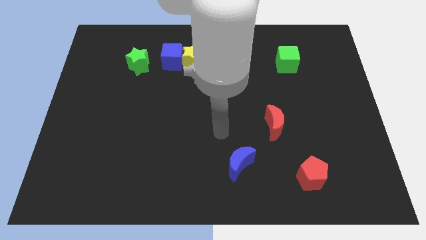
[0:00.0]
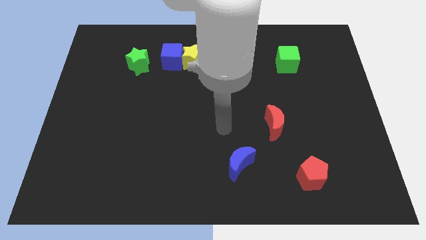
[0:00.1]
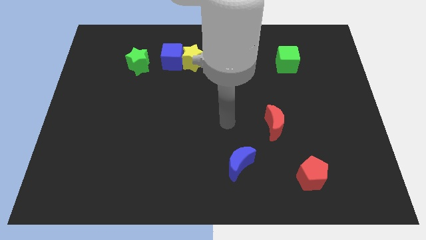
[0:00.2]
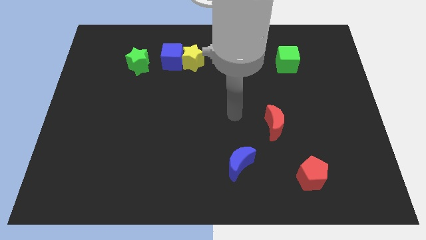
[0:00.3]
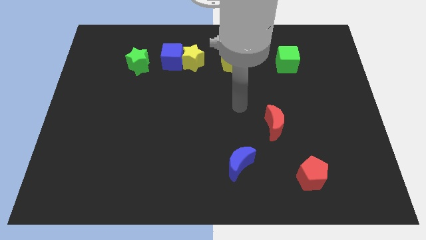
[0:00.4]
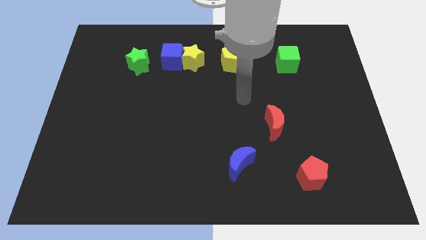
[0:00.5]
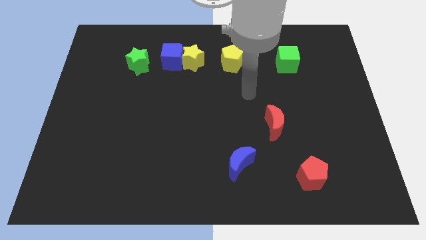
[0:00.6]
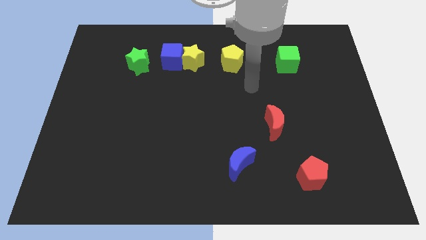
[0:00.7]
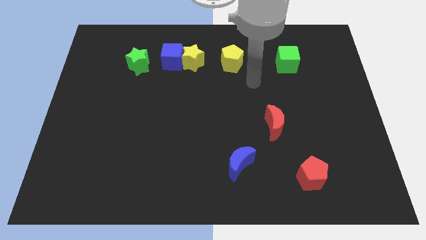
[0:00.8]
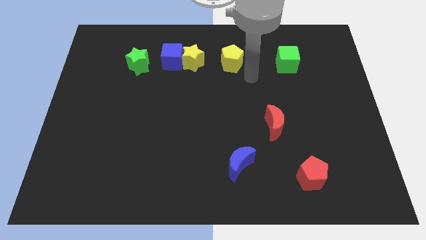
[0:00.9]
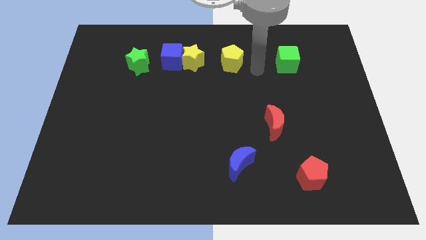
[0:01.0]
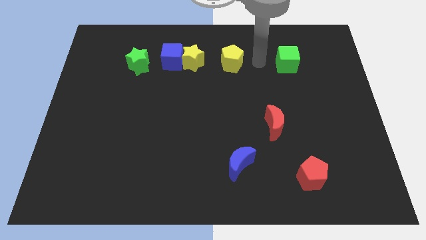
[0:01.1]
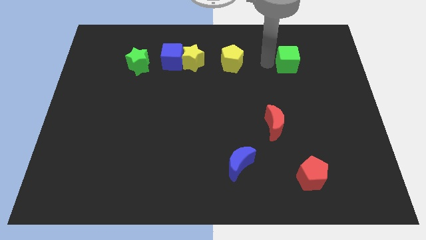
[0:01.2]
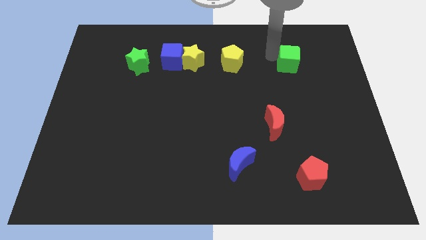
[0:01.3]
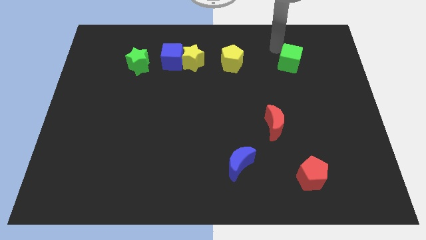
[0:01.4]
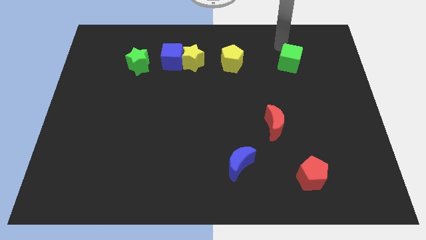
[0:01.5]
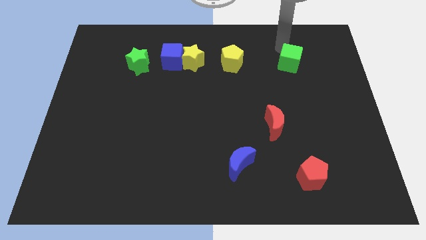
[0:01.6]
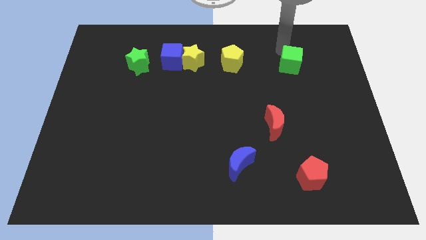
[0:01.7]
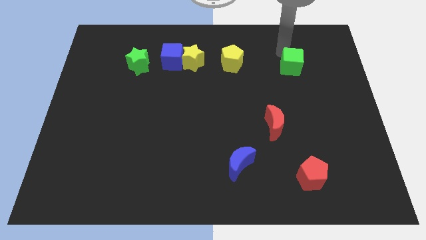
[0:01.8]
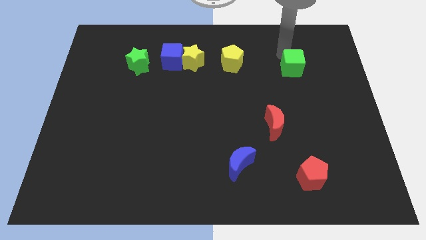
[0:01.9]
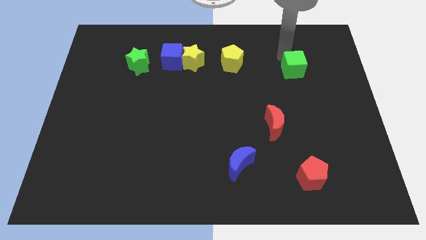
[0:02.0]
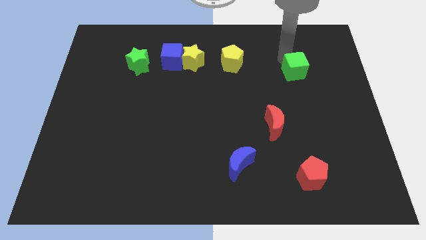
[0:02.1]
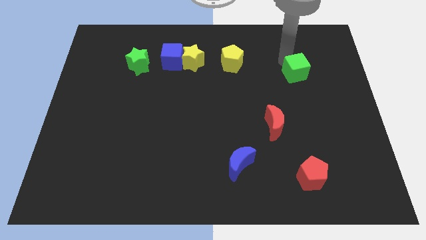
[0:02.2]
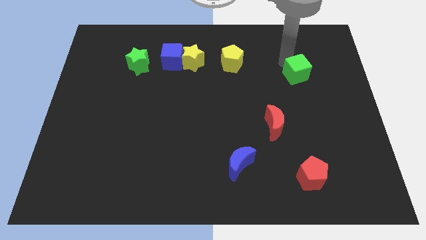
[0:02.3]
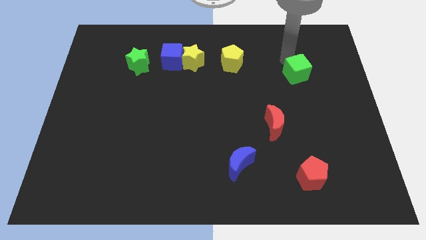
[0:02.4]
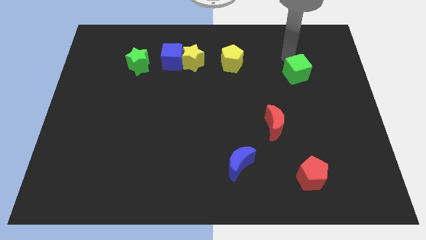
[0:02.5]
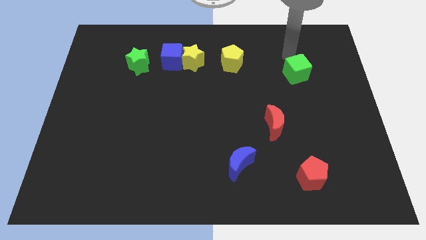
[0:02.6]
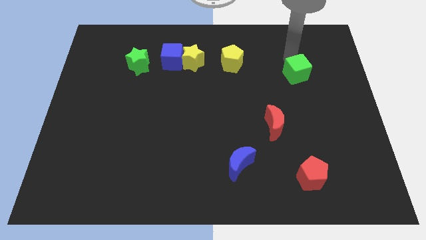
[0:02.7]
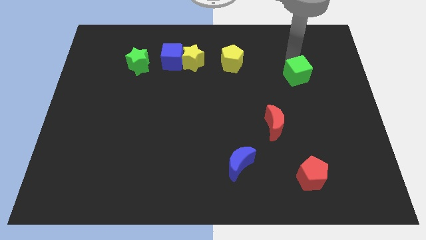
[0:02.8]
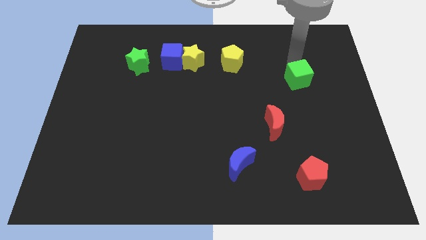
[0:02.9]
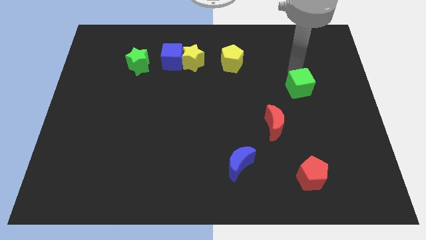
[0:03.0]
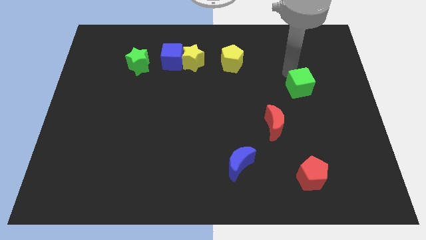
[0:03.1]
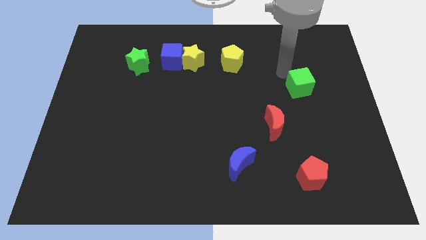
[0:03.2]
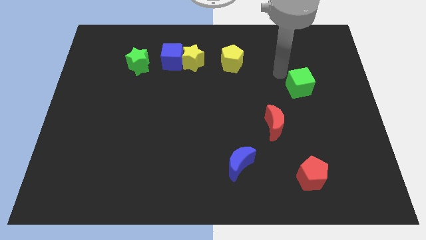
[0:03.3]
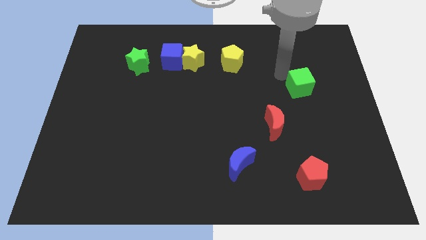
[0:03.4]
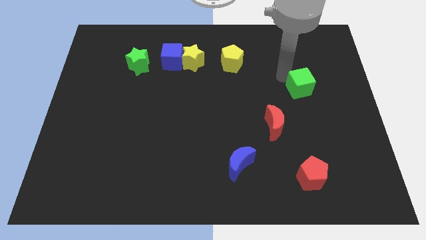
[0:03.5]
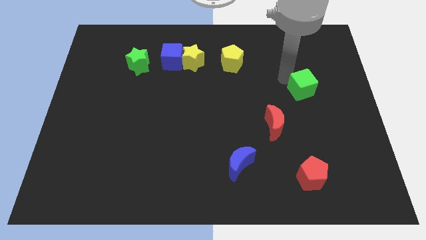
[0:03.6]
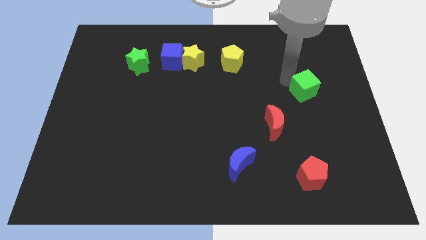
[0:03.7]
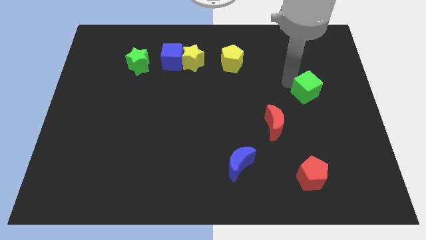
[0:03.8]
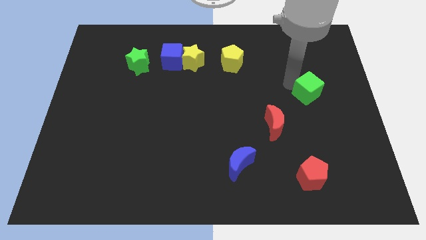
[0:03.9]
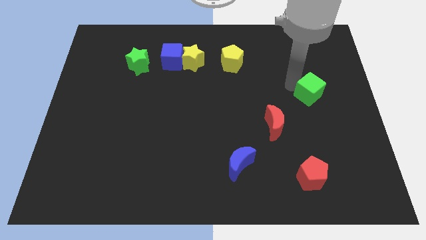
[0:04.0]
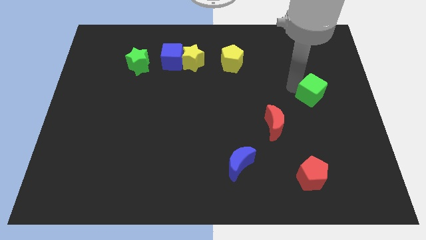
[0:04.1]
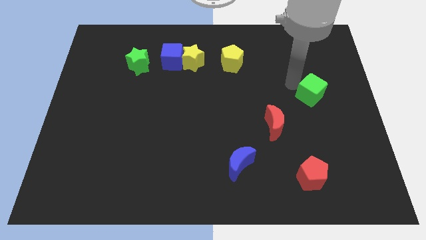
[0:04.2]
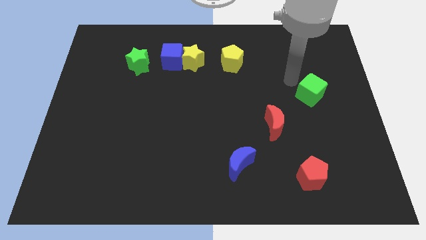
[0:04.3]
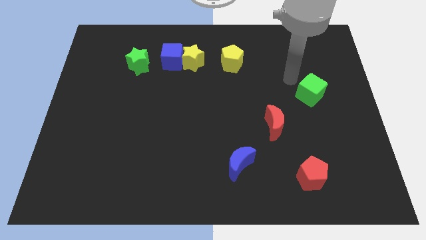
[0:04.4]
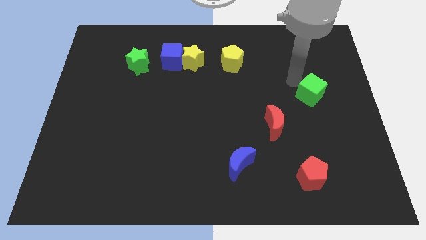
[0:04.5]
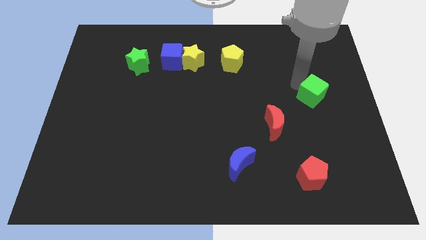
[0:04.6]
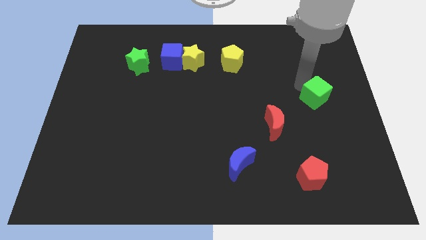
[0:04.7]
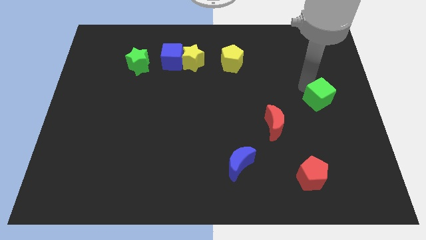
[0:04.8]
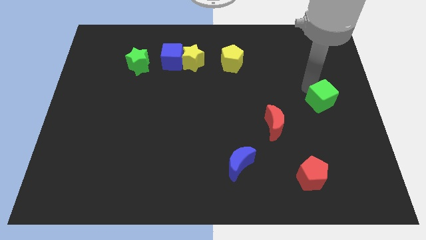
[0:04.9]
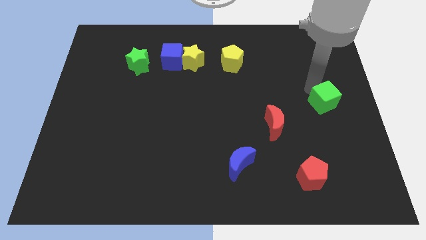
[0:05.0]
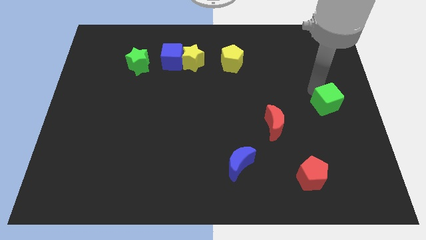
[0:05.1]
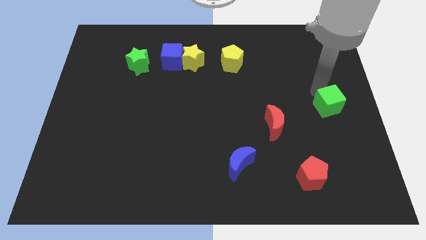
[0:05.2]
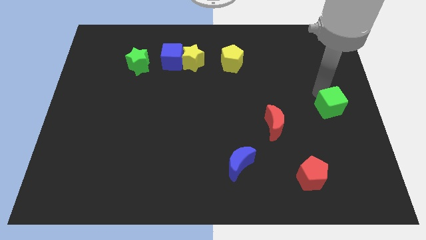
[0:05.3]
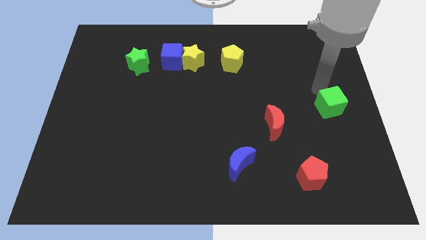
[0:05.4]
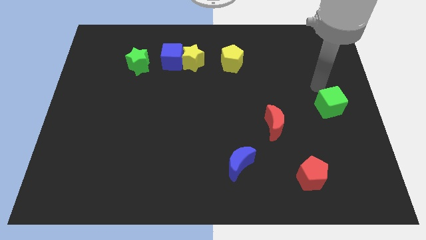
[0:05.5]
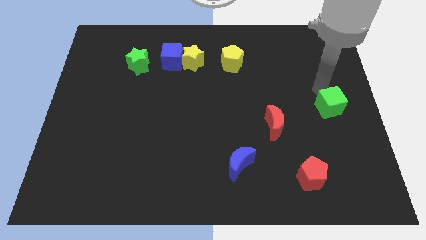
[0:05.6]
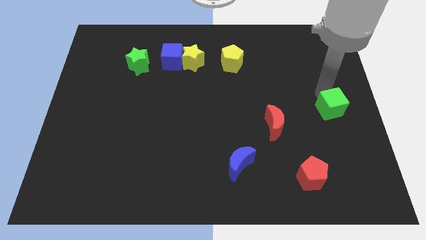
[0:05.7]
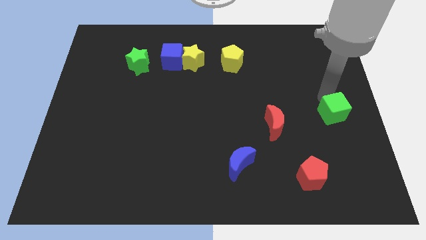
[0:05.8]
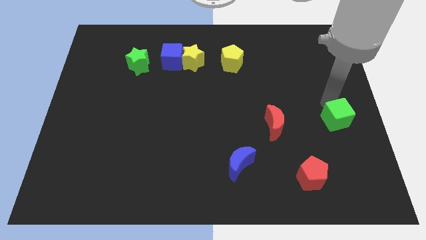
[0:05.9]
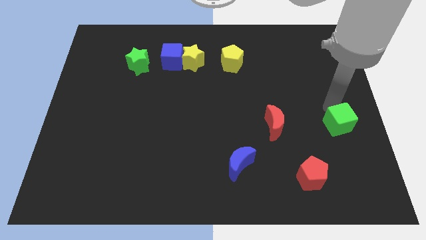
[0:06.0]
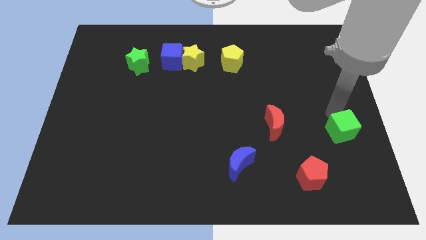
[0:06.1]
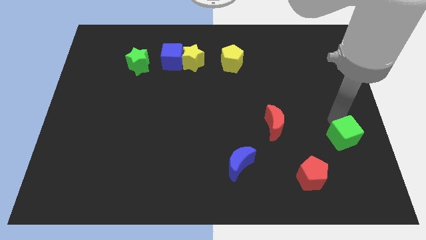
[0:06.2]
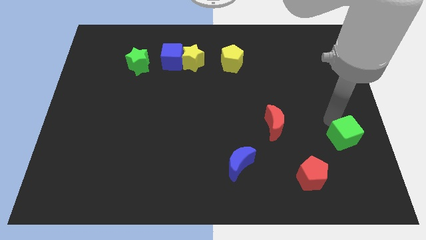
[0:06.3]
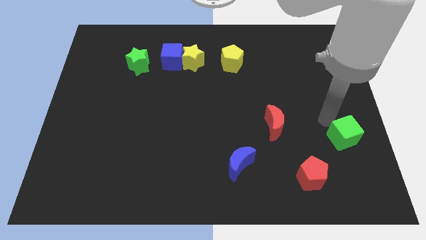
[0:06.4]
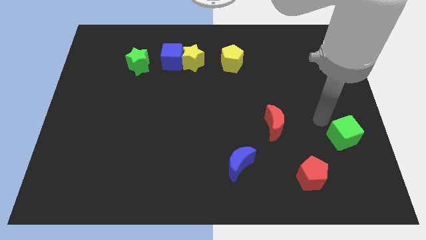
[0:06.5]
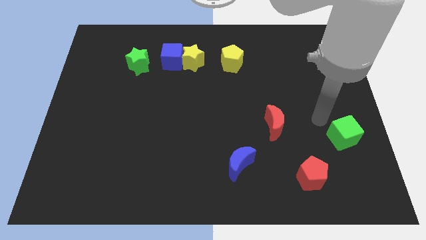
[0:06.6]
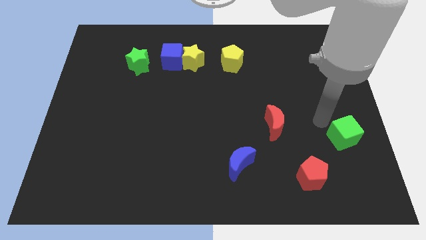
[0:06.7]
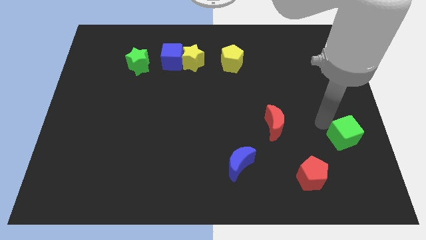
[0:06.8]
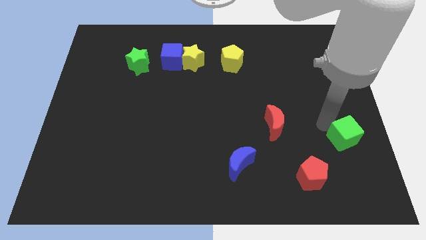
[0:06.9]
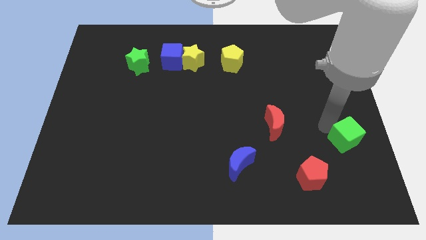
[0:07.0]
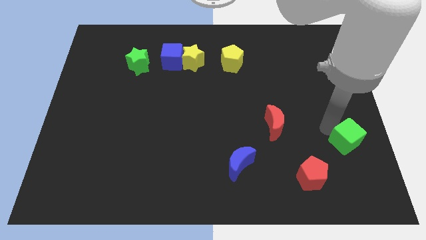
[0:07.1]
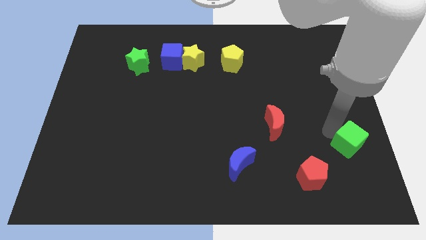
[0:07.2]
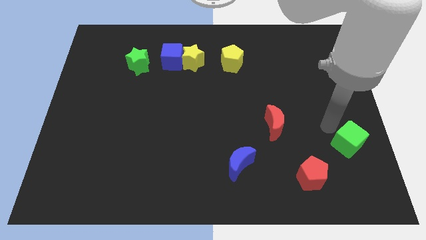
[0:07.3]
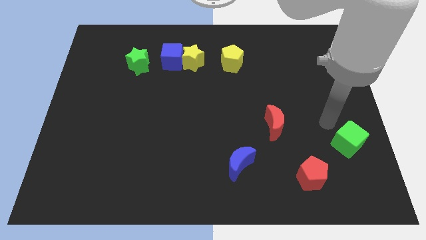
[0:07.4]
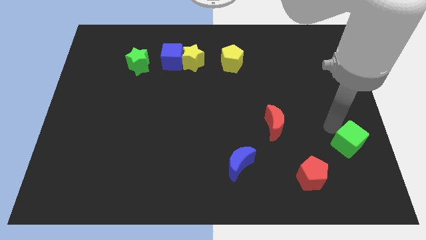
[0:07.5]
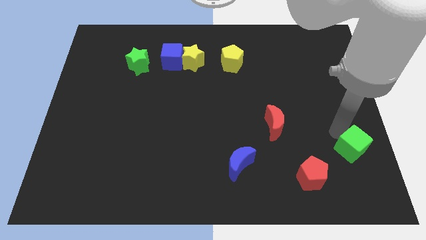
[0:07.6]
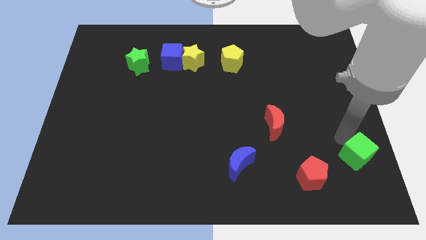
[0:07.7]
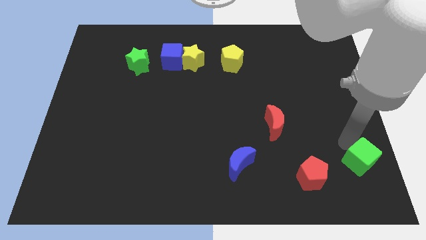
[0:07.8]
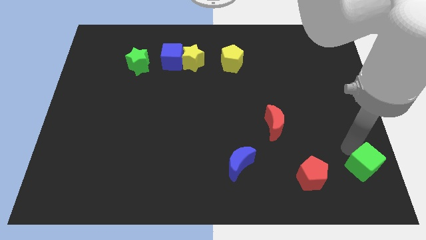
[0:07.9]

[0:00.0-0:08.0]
slide the green cube to the bottom right
